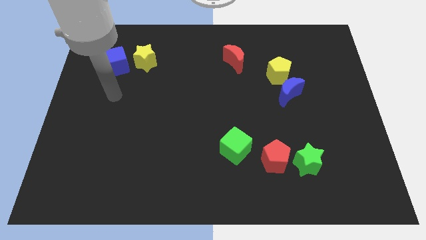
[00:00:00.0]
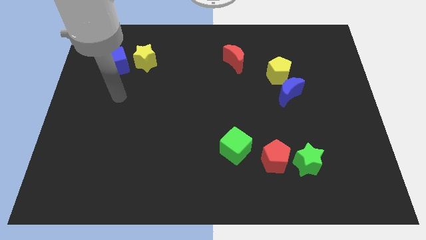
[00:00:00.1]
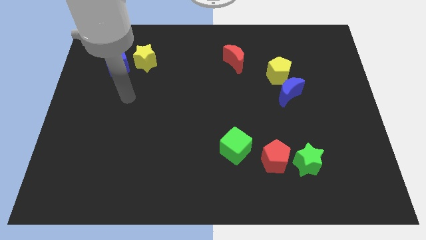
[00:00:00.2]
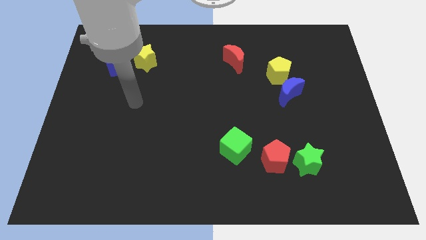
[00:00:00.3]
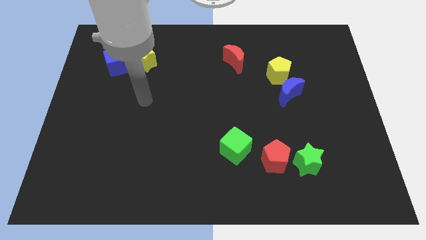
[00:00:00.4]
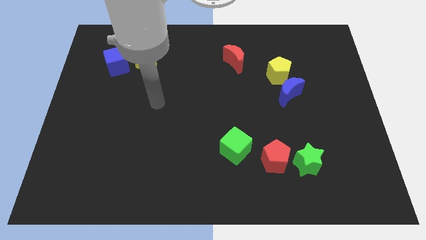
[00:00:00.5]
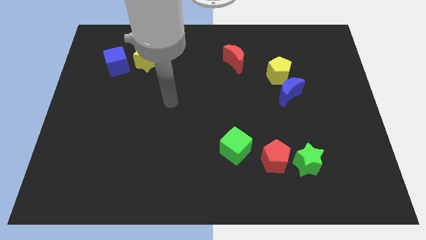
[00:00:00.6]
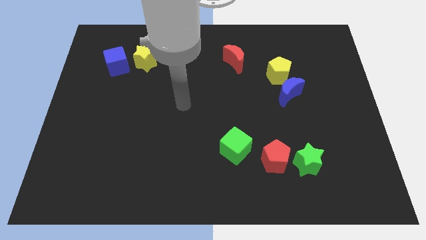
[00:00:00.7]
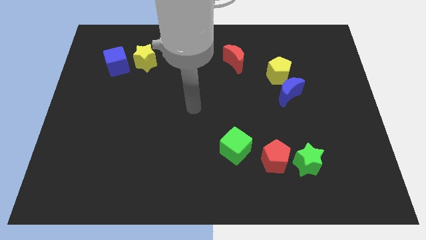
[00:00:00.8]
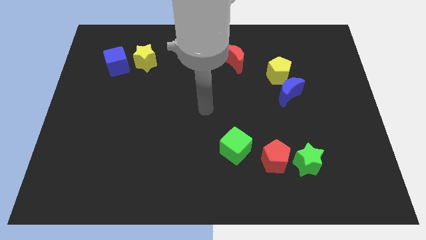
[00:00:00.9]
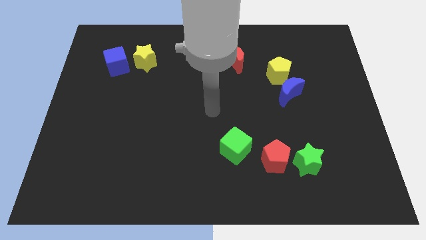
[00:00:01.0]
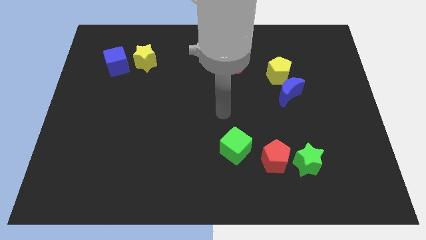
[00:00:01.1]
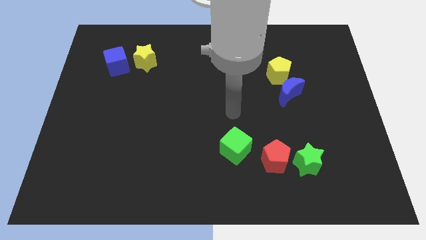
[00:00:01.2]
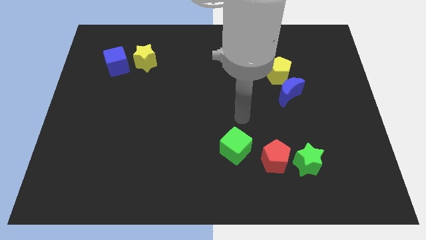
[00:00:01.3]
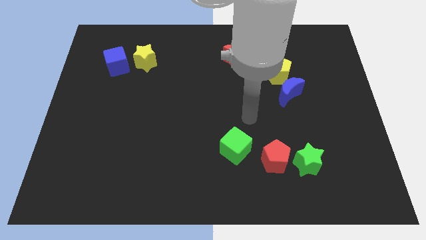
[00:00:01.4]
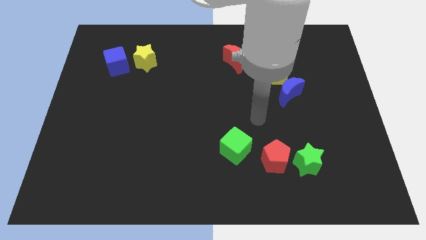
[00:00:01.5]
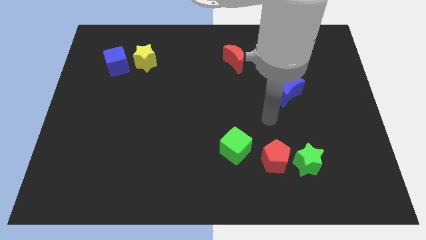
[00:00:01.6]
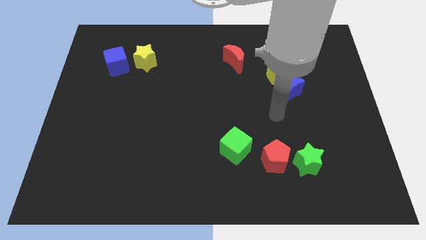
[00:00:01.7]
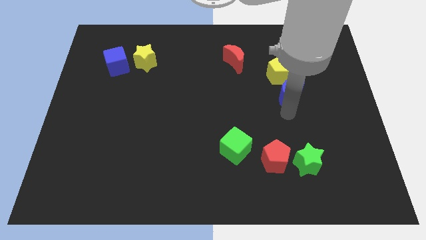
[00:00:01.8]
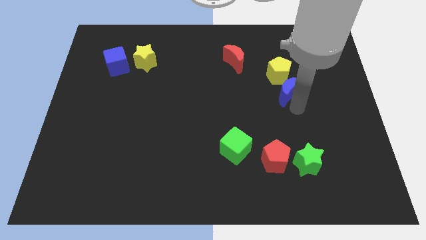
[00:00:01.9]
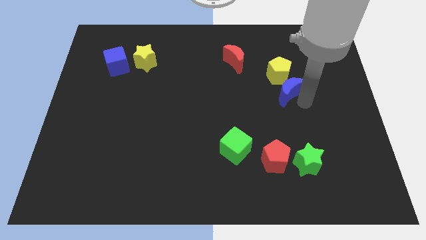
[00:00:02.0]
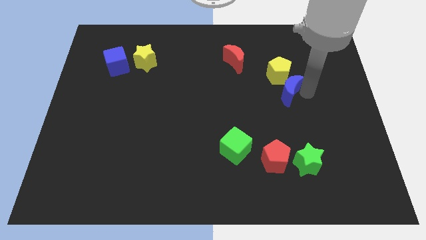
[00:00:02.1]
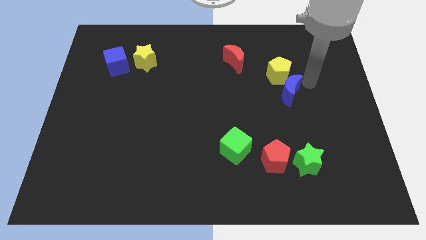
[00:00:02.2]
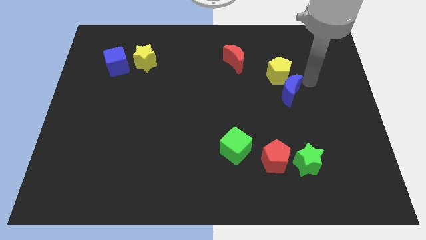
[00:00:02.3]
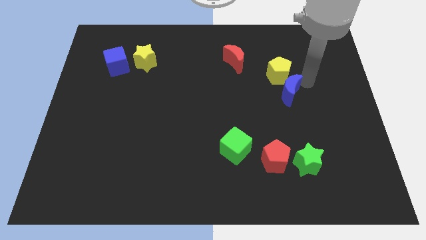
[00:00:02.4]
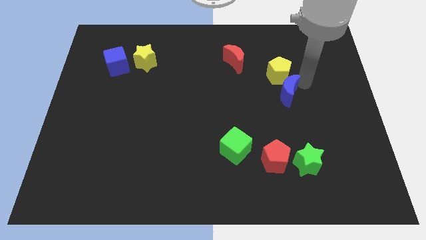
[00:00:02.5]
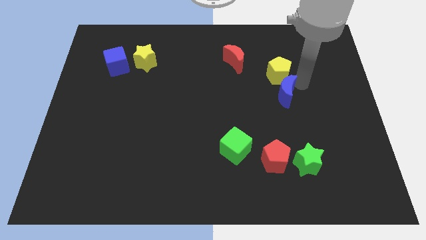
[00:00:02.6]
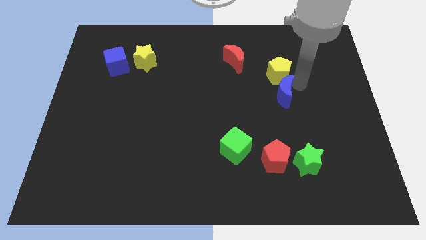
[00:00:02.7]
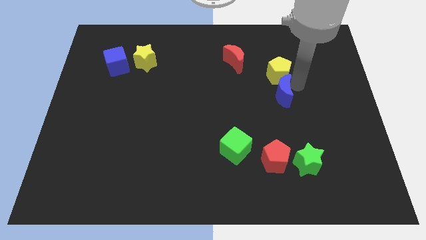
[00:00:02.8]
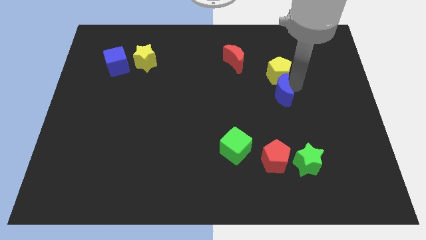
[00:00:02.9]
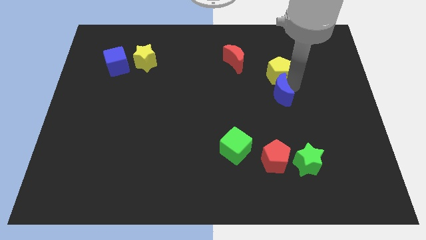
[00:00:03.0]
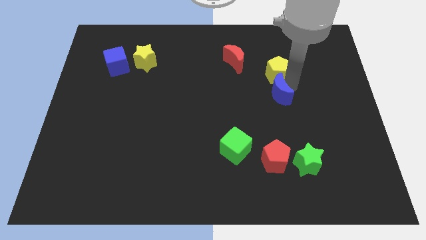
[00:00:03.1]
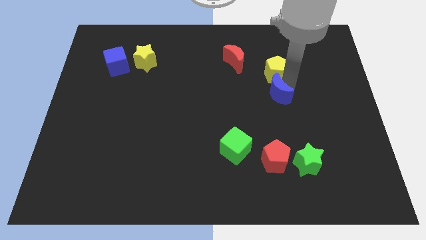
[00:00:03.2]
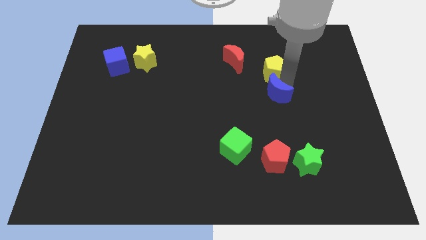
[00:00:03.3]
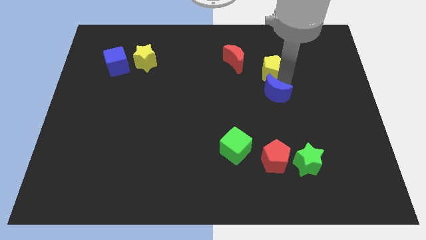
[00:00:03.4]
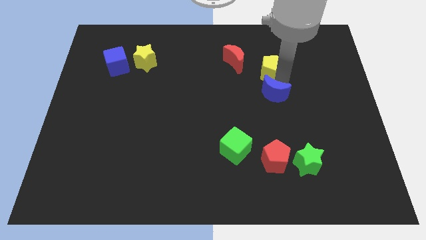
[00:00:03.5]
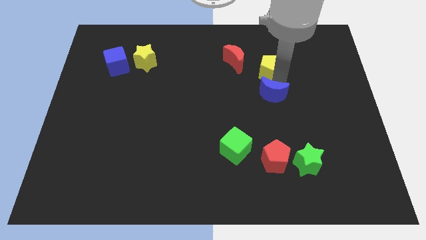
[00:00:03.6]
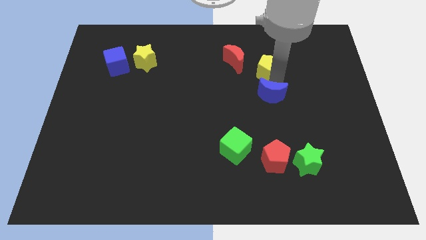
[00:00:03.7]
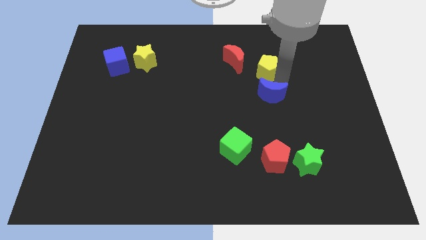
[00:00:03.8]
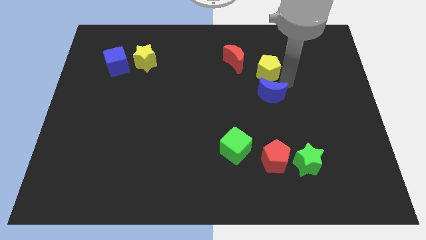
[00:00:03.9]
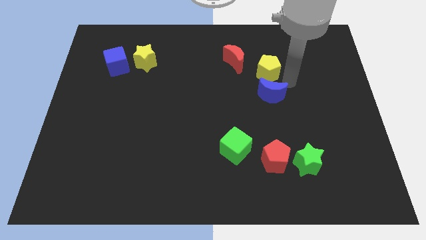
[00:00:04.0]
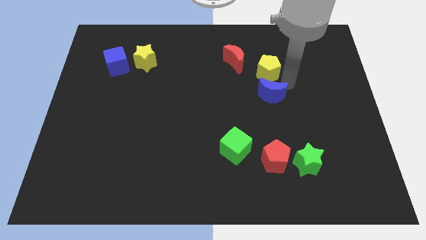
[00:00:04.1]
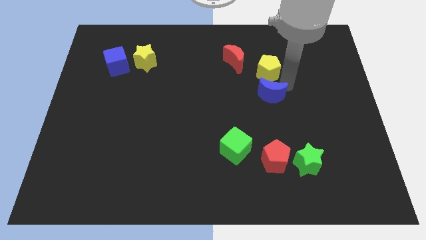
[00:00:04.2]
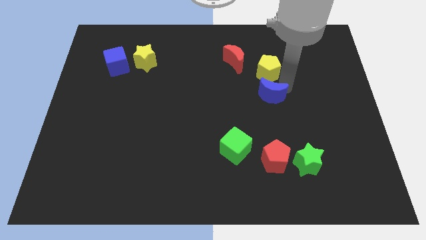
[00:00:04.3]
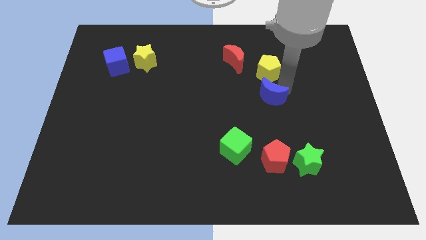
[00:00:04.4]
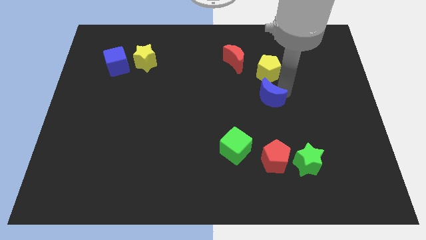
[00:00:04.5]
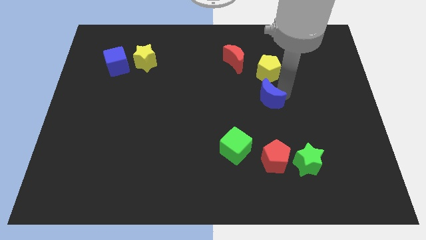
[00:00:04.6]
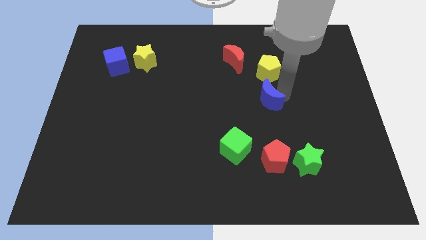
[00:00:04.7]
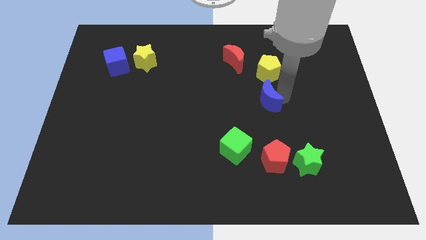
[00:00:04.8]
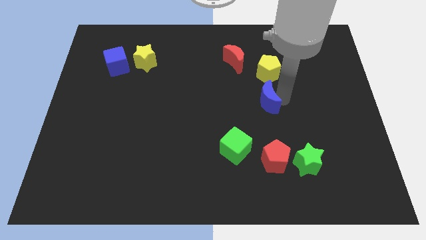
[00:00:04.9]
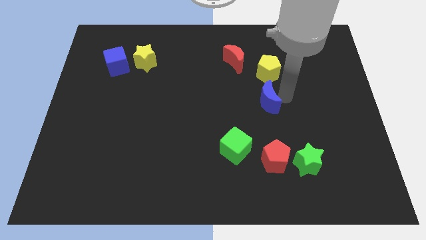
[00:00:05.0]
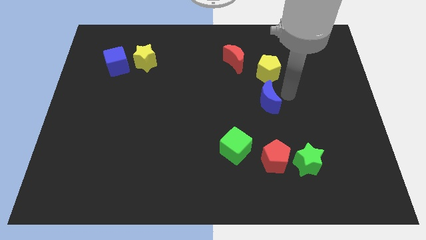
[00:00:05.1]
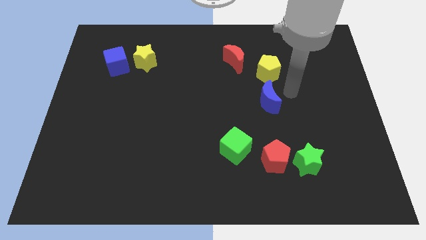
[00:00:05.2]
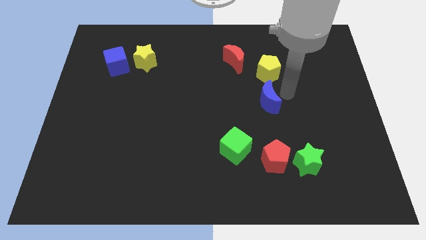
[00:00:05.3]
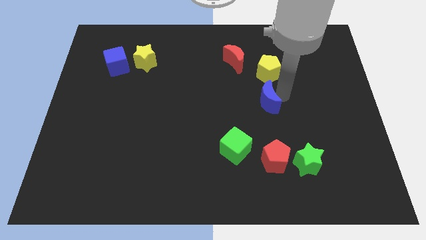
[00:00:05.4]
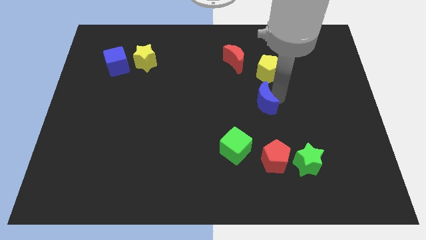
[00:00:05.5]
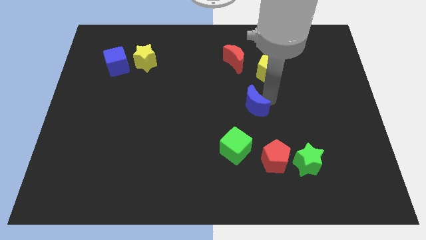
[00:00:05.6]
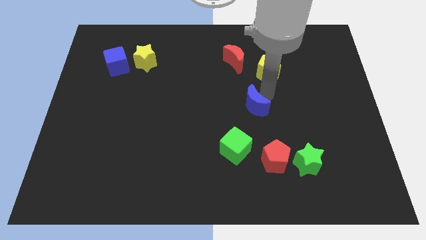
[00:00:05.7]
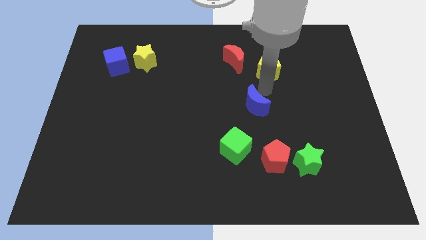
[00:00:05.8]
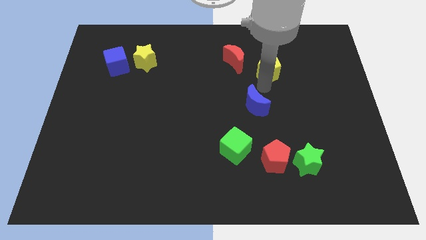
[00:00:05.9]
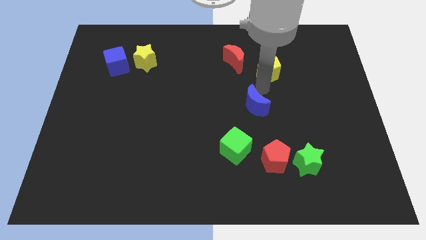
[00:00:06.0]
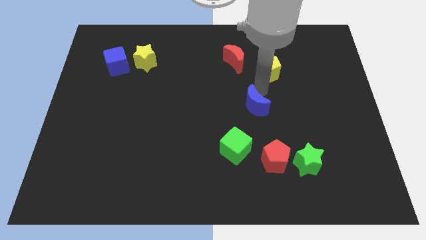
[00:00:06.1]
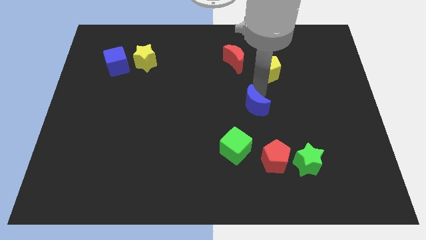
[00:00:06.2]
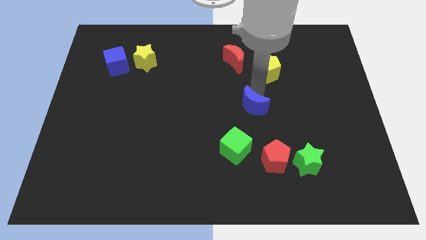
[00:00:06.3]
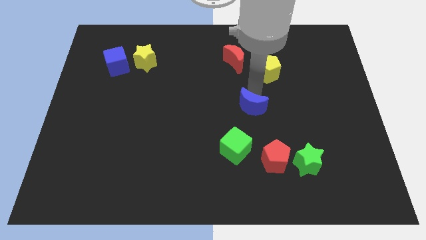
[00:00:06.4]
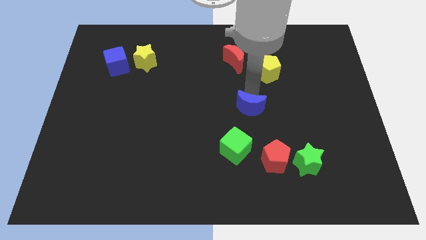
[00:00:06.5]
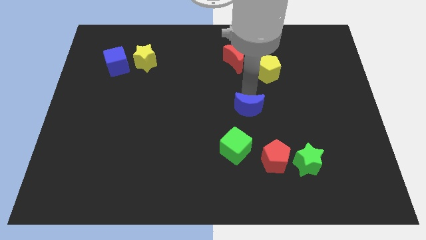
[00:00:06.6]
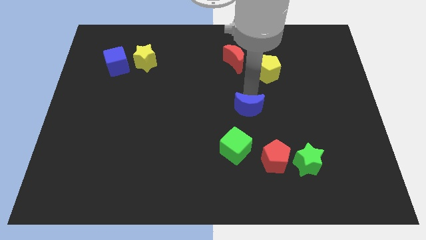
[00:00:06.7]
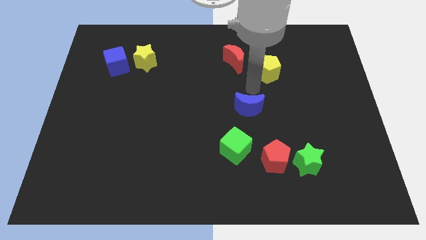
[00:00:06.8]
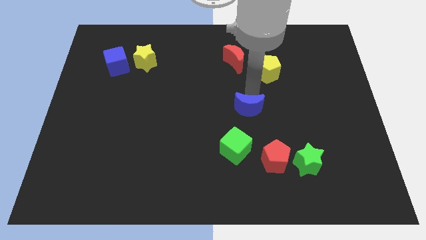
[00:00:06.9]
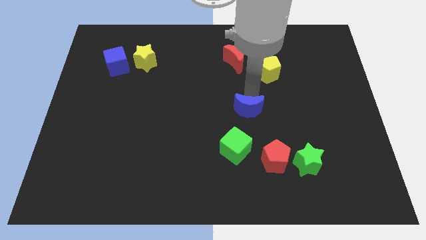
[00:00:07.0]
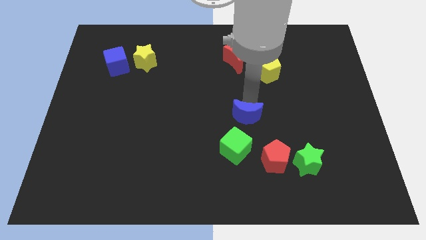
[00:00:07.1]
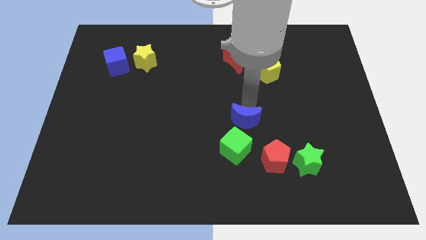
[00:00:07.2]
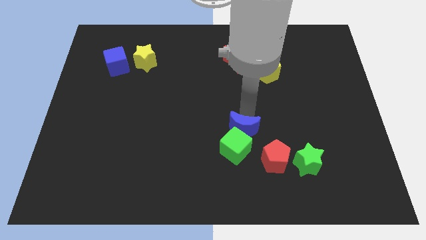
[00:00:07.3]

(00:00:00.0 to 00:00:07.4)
move the blue moon next to the green cube
